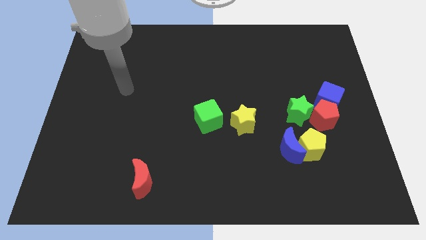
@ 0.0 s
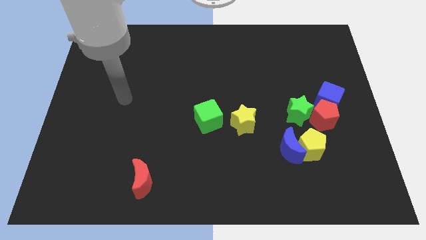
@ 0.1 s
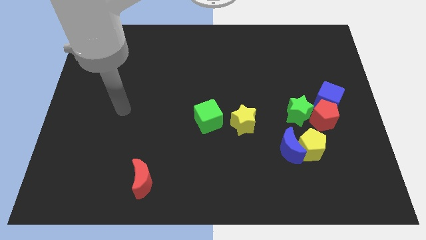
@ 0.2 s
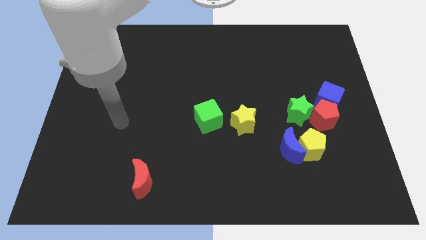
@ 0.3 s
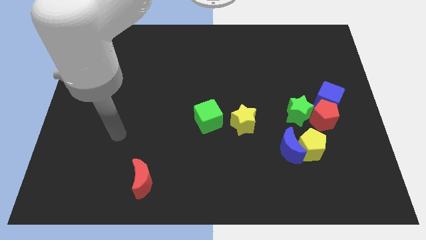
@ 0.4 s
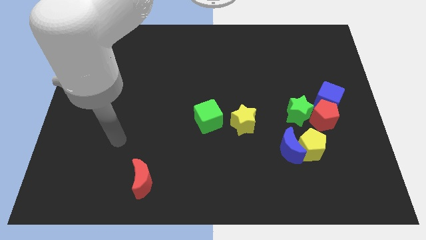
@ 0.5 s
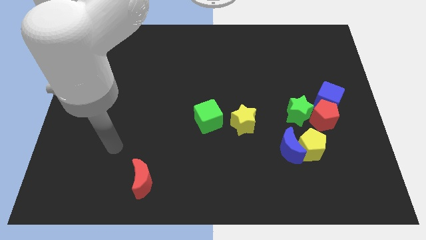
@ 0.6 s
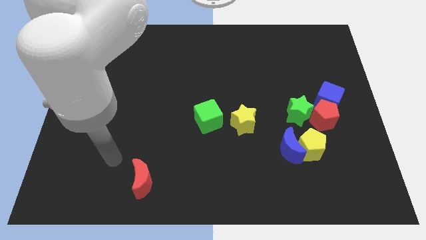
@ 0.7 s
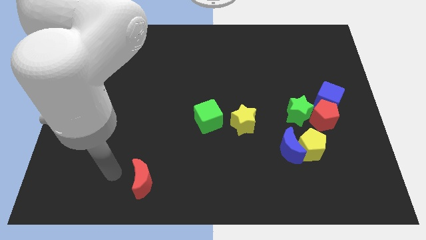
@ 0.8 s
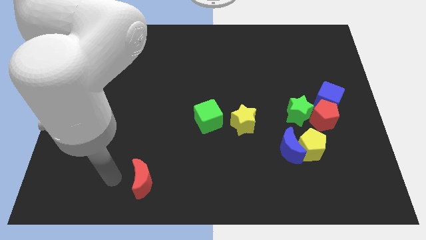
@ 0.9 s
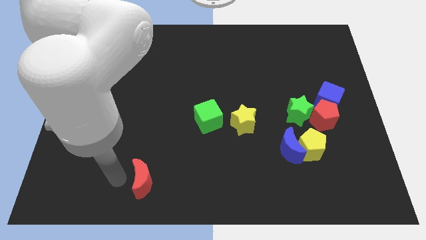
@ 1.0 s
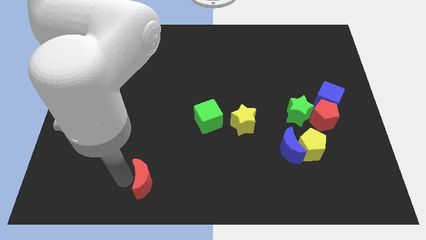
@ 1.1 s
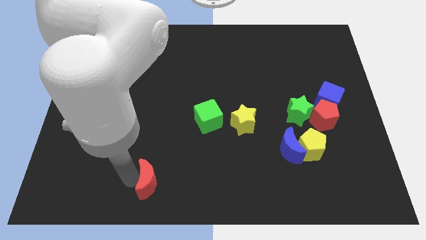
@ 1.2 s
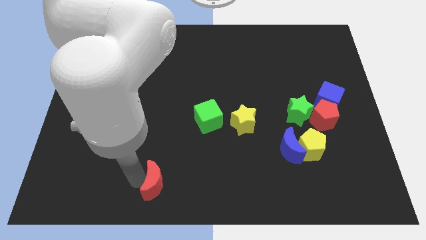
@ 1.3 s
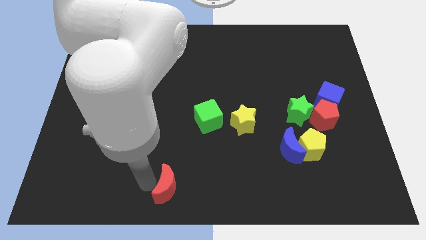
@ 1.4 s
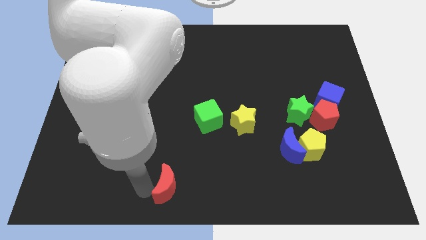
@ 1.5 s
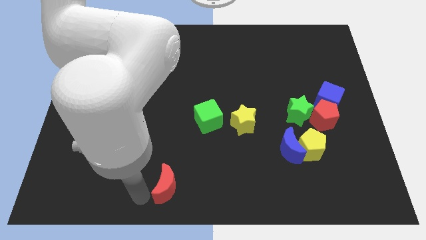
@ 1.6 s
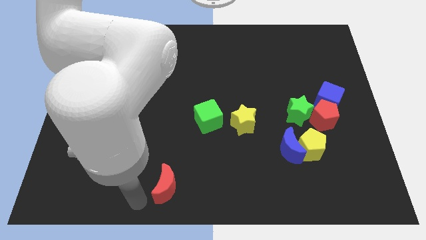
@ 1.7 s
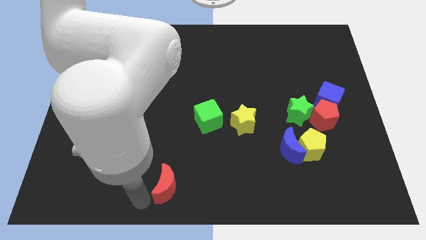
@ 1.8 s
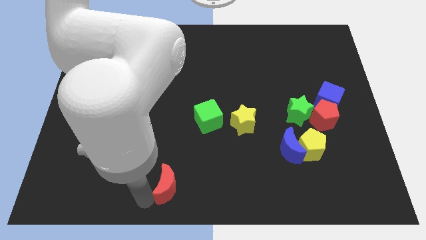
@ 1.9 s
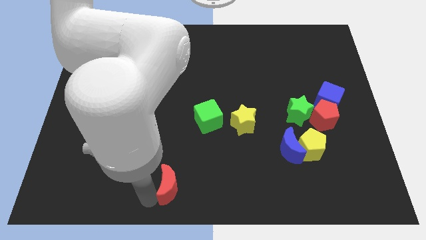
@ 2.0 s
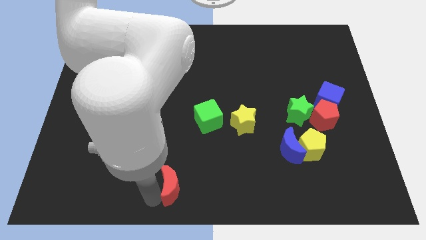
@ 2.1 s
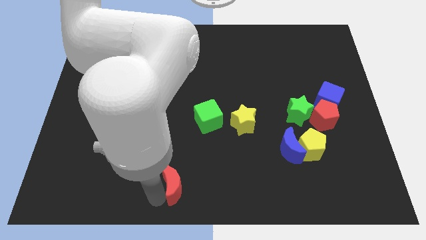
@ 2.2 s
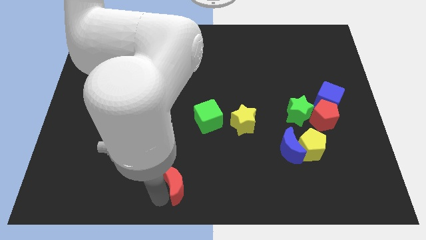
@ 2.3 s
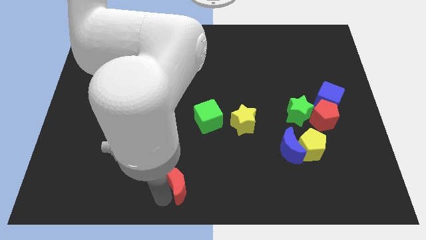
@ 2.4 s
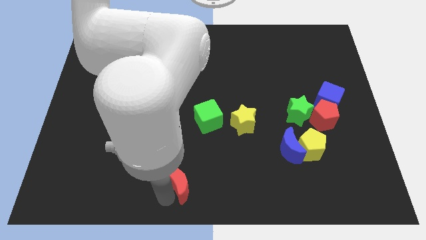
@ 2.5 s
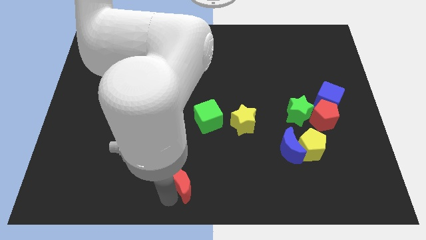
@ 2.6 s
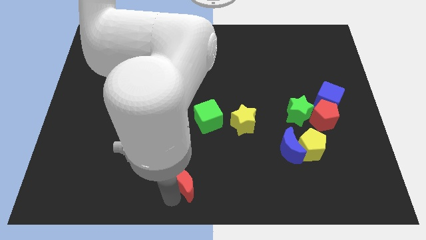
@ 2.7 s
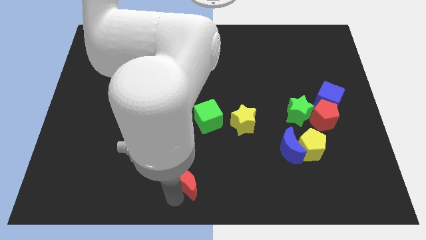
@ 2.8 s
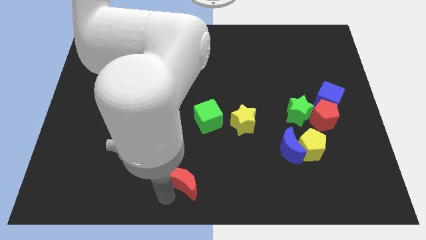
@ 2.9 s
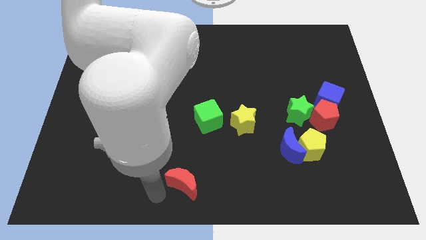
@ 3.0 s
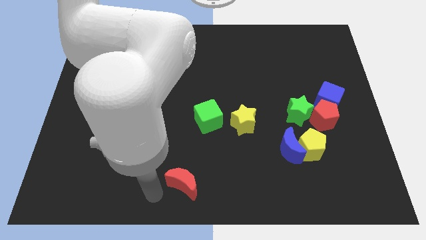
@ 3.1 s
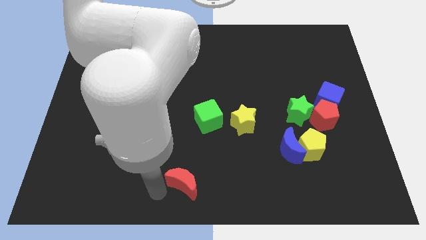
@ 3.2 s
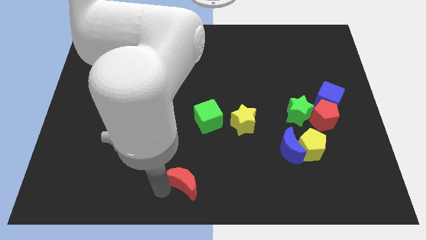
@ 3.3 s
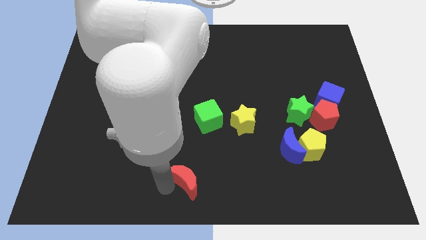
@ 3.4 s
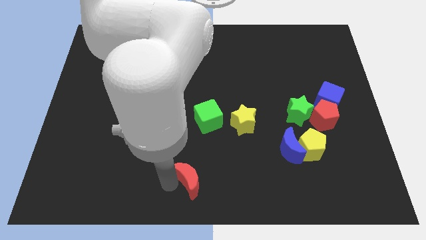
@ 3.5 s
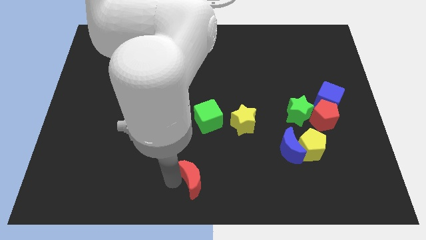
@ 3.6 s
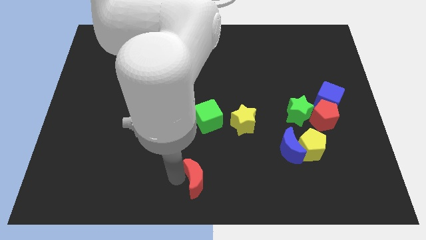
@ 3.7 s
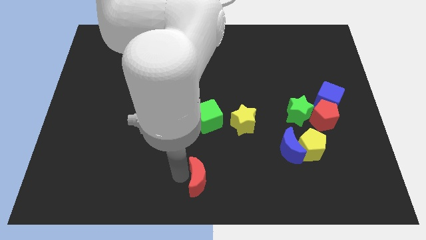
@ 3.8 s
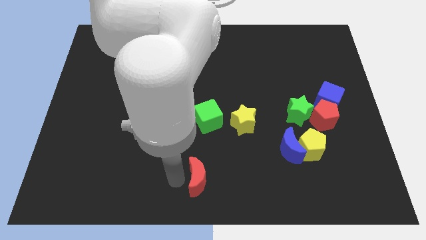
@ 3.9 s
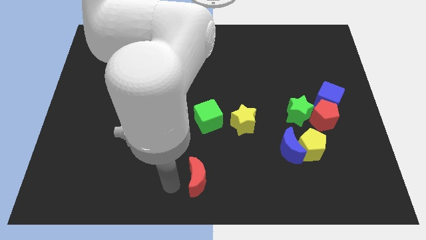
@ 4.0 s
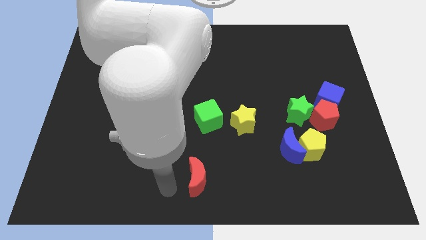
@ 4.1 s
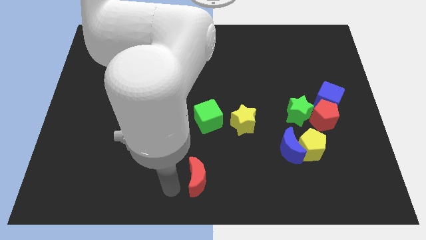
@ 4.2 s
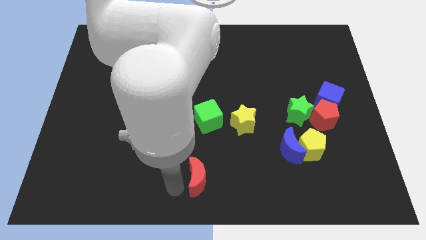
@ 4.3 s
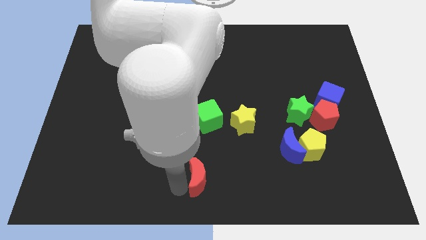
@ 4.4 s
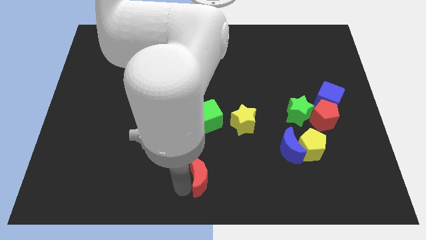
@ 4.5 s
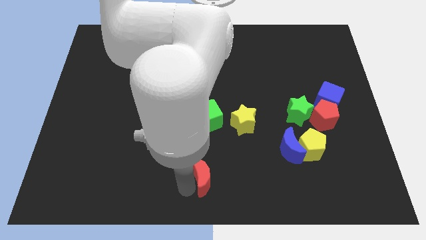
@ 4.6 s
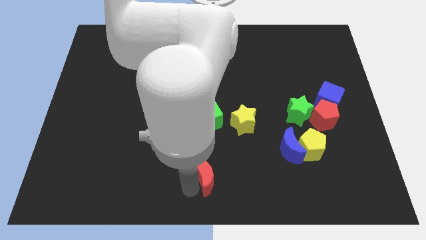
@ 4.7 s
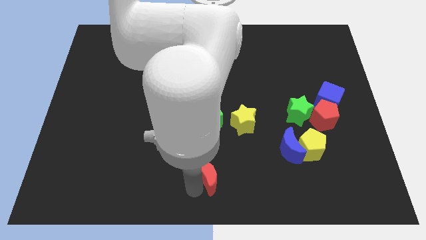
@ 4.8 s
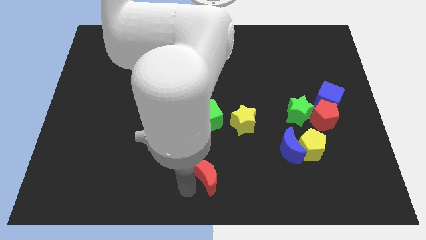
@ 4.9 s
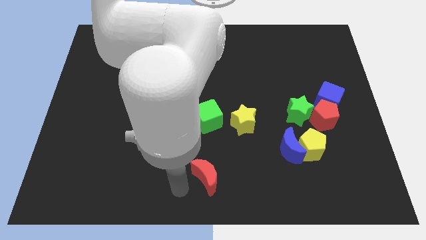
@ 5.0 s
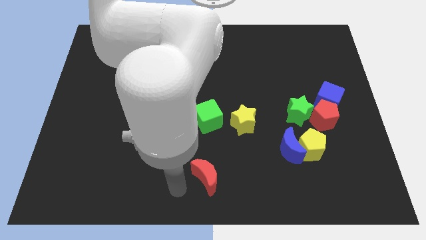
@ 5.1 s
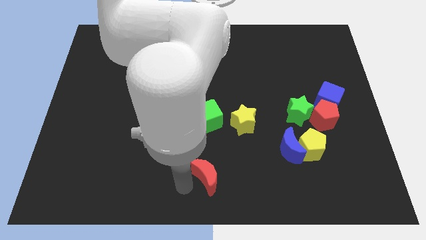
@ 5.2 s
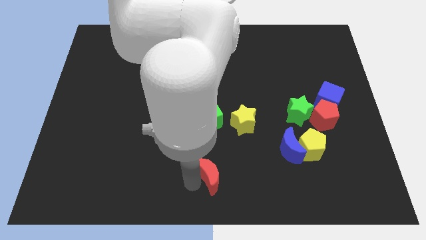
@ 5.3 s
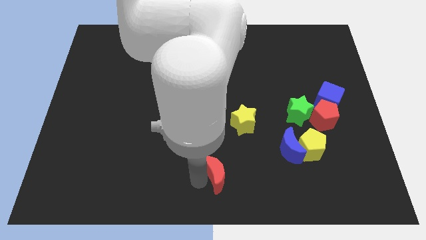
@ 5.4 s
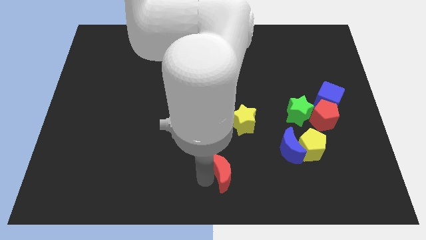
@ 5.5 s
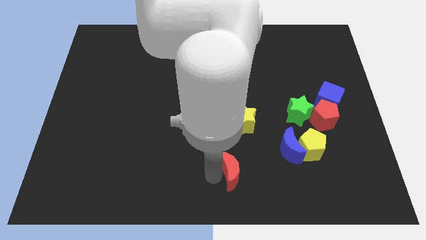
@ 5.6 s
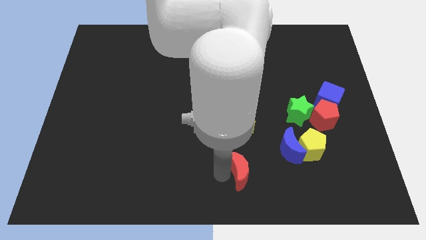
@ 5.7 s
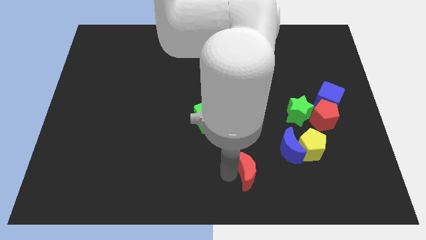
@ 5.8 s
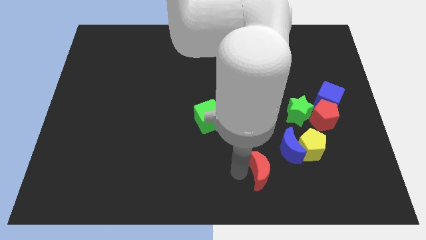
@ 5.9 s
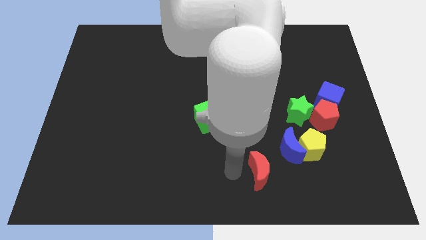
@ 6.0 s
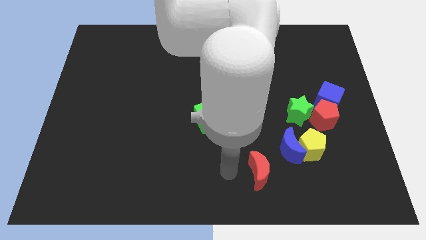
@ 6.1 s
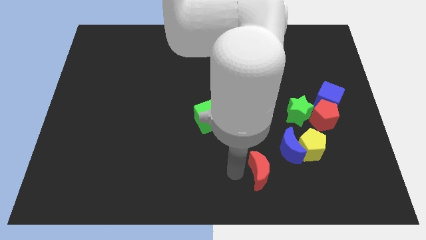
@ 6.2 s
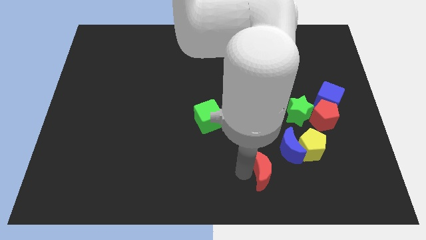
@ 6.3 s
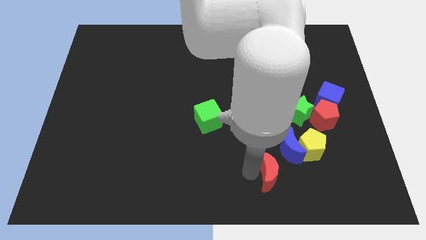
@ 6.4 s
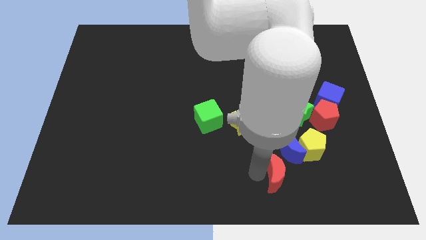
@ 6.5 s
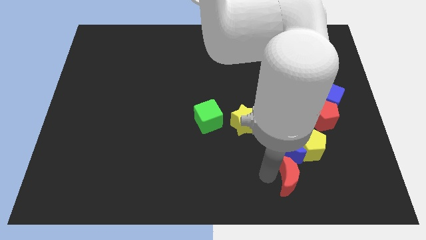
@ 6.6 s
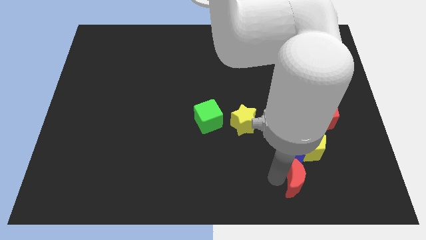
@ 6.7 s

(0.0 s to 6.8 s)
slide the red moon diagonally down and to the right of the blue moon

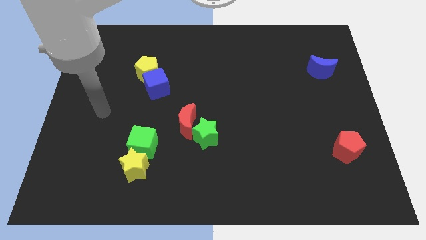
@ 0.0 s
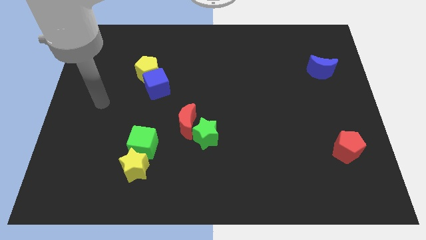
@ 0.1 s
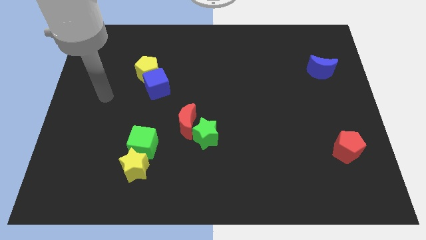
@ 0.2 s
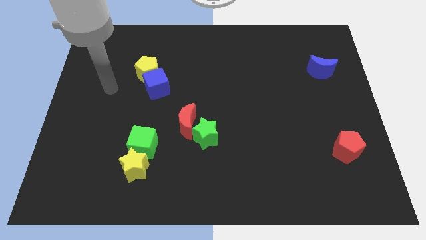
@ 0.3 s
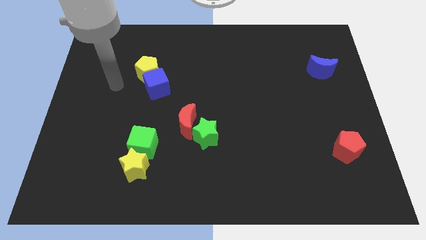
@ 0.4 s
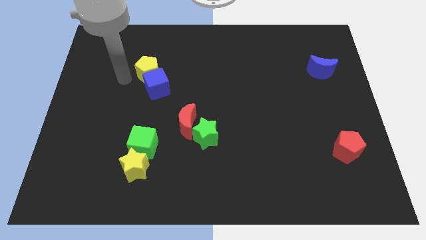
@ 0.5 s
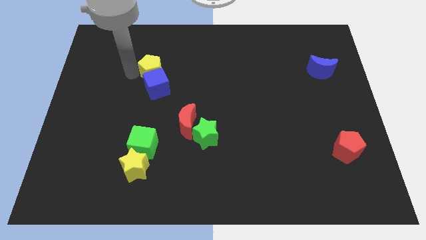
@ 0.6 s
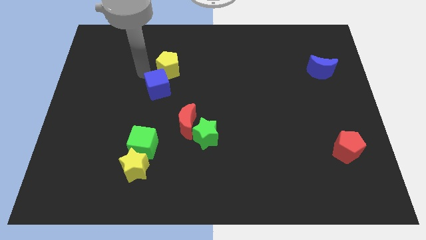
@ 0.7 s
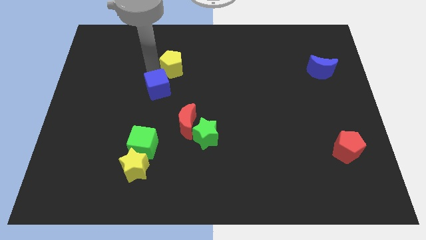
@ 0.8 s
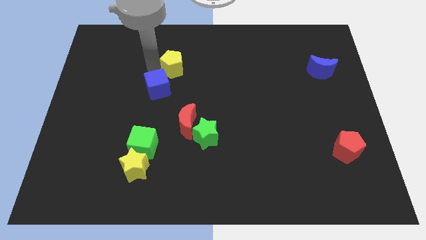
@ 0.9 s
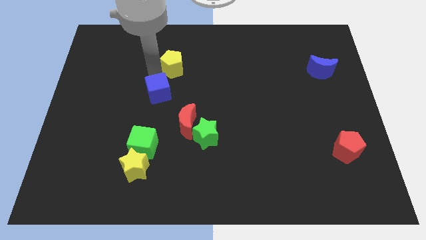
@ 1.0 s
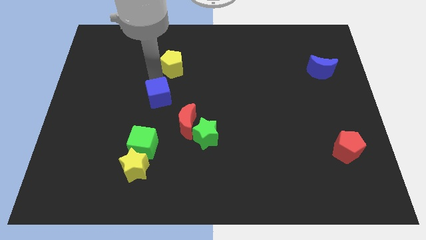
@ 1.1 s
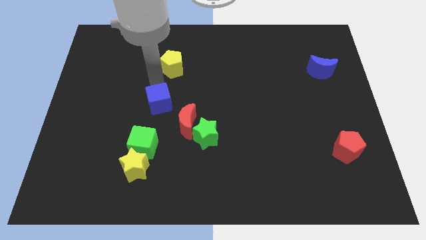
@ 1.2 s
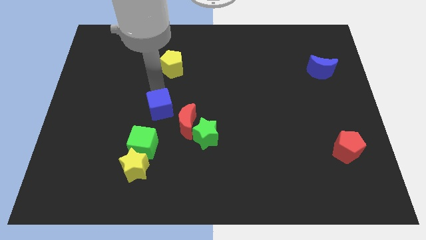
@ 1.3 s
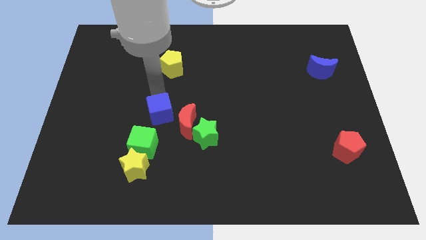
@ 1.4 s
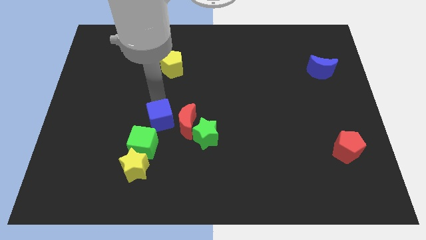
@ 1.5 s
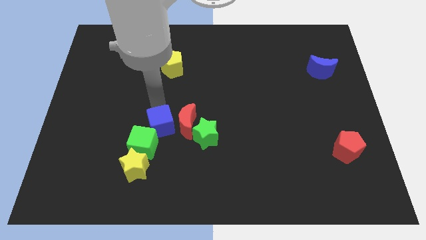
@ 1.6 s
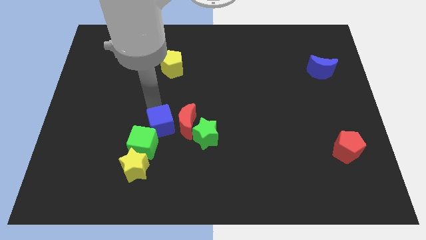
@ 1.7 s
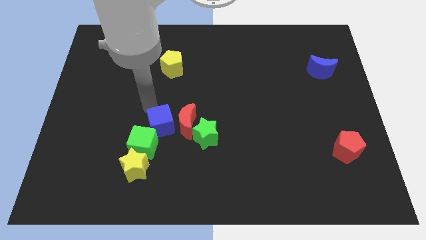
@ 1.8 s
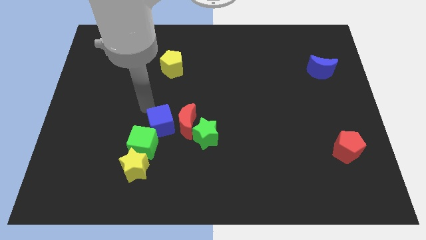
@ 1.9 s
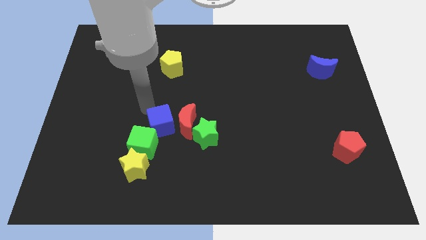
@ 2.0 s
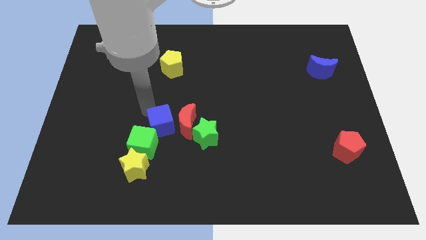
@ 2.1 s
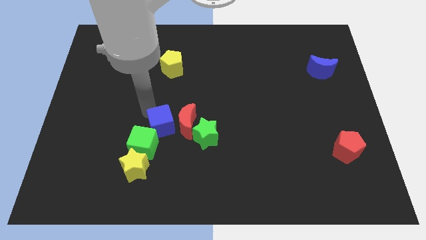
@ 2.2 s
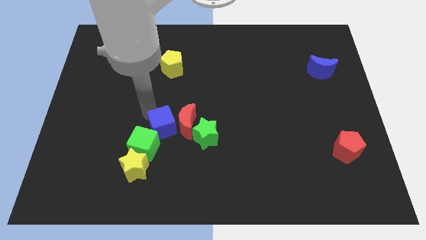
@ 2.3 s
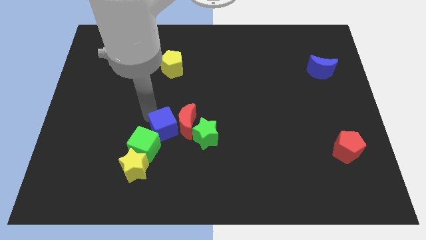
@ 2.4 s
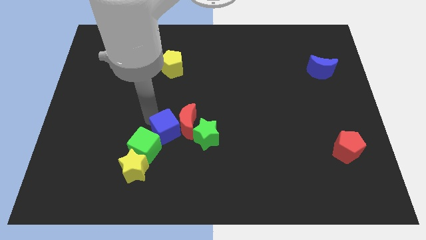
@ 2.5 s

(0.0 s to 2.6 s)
move the blue cube to the right of the green cube
